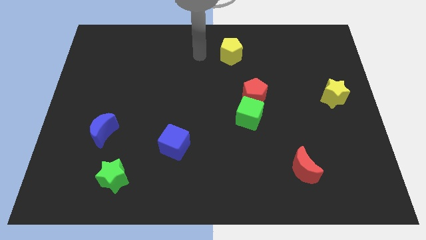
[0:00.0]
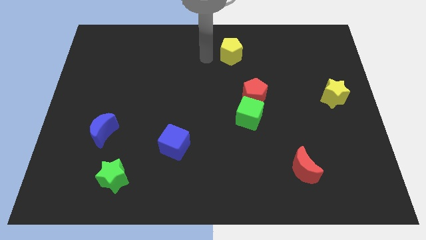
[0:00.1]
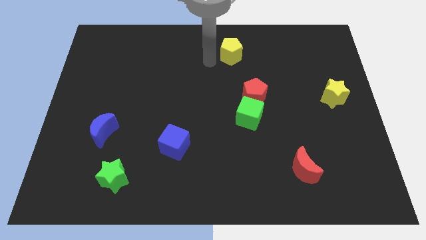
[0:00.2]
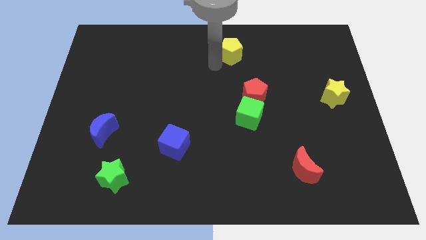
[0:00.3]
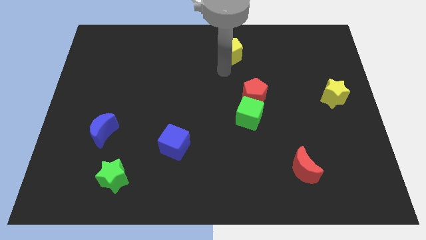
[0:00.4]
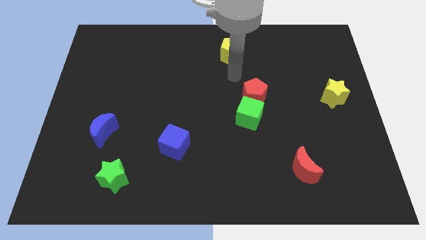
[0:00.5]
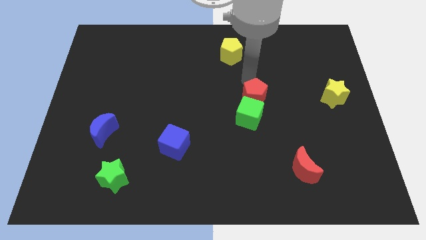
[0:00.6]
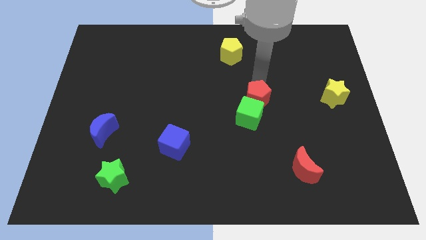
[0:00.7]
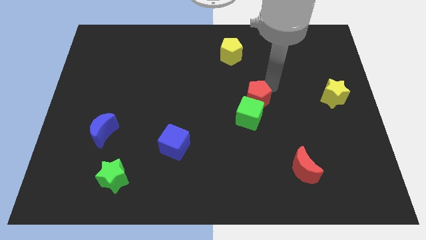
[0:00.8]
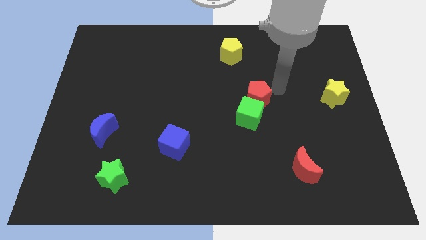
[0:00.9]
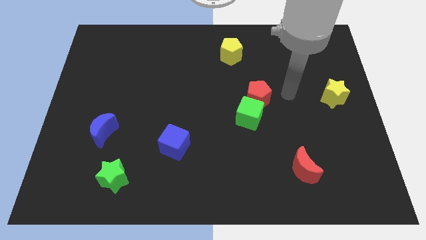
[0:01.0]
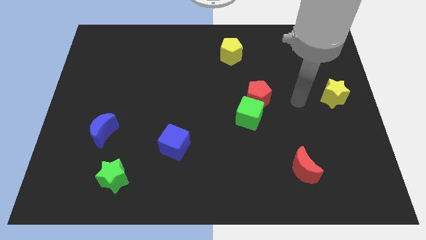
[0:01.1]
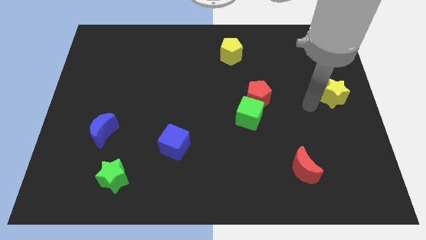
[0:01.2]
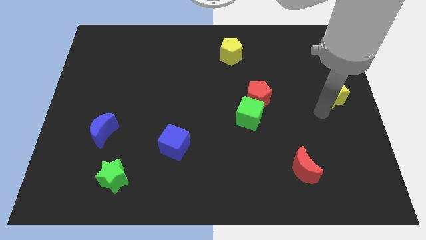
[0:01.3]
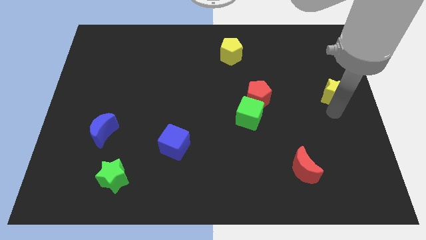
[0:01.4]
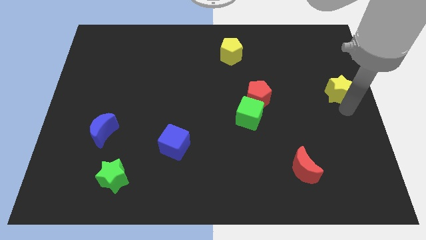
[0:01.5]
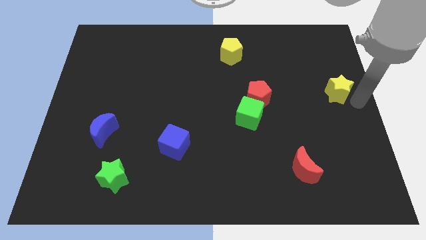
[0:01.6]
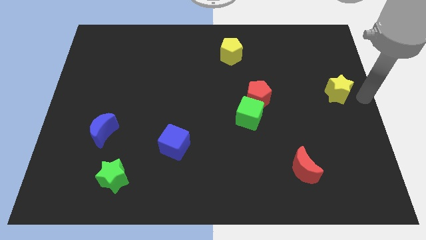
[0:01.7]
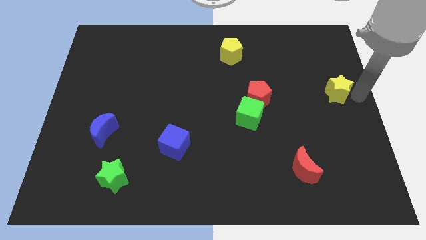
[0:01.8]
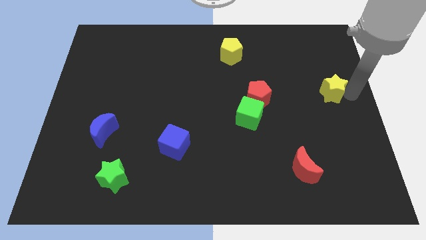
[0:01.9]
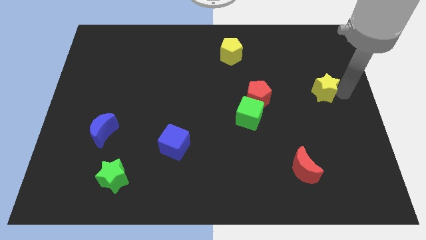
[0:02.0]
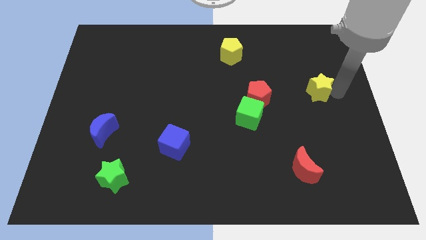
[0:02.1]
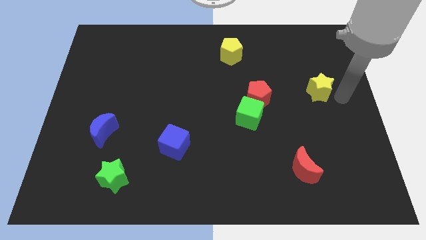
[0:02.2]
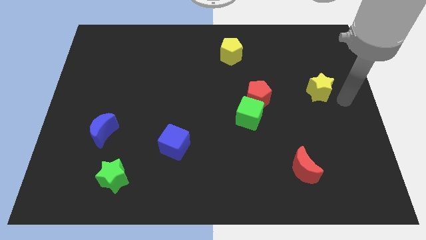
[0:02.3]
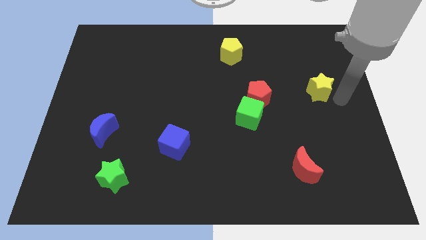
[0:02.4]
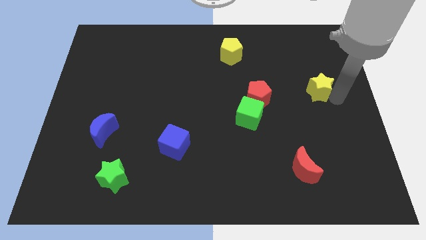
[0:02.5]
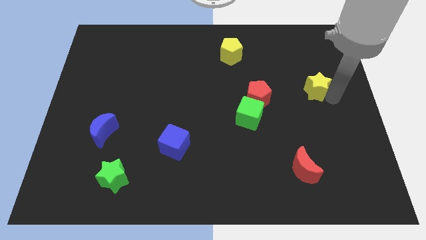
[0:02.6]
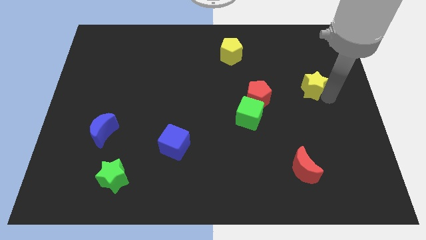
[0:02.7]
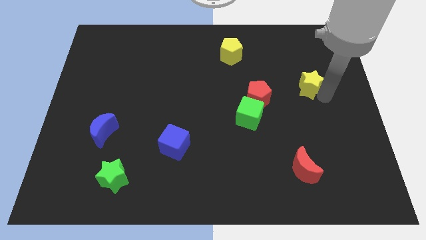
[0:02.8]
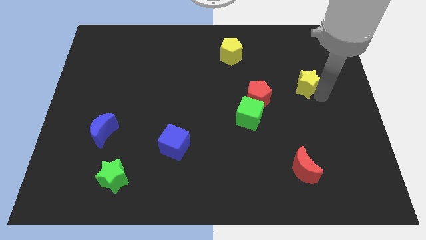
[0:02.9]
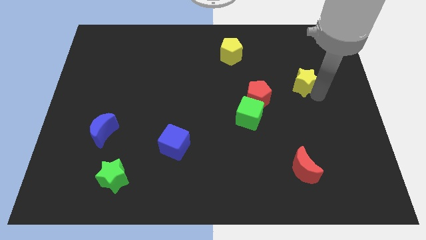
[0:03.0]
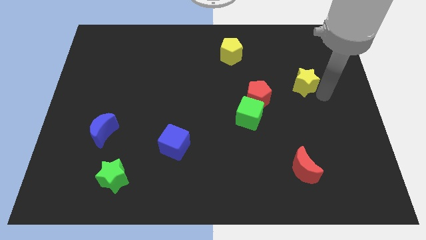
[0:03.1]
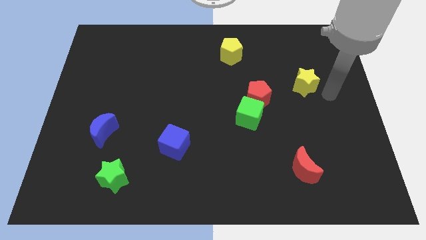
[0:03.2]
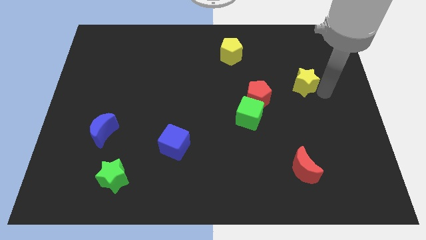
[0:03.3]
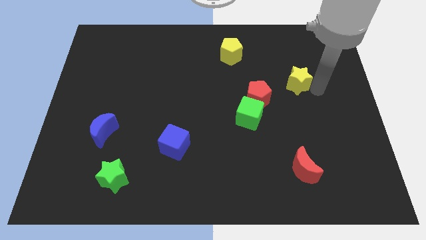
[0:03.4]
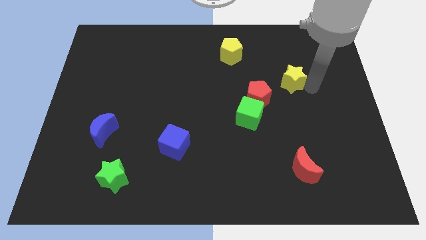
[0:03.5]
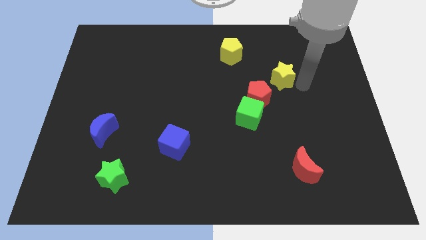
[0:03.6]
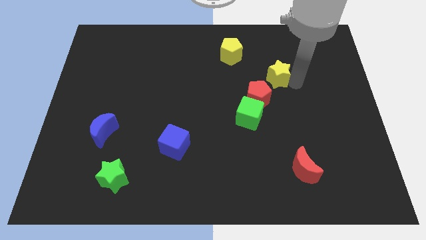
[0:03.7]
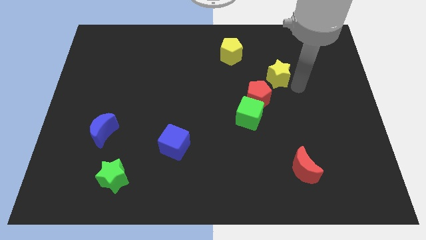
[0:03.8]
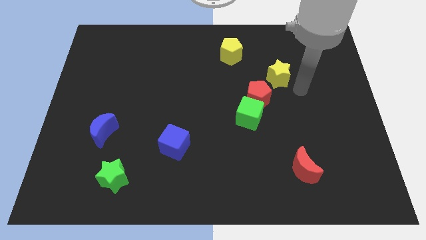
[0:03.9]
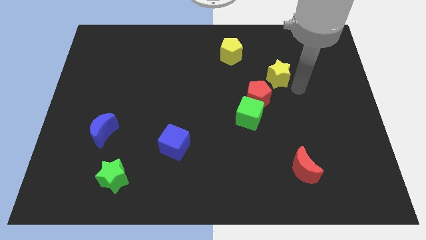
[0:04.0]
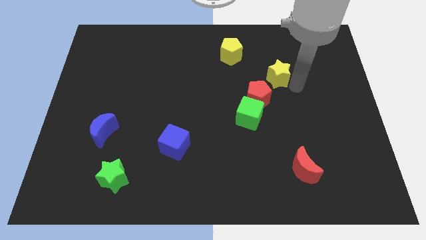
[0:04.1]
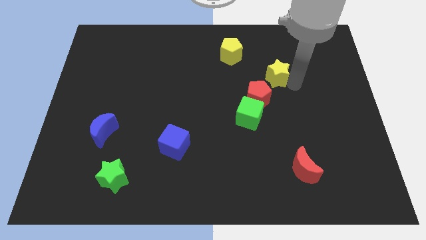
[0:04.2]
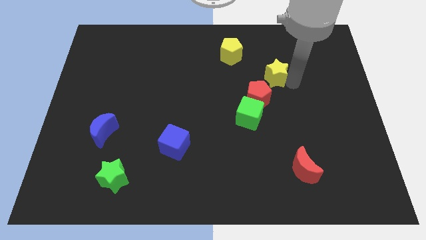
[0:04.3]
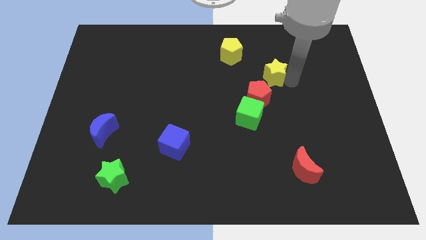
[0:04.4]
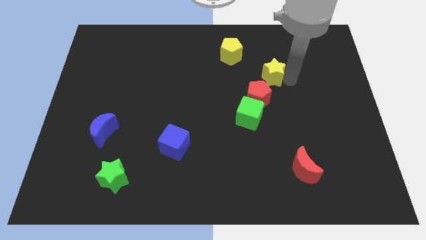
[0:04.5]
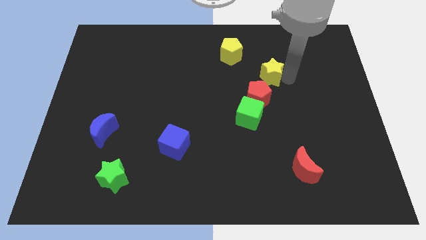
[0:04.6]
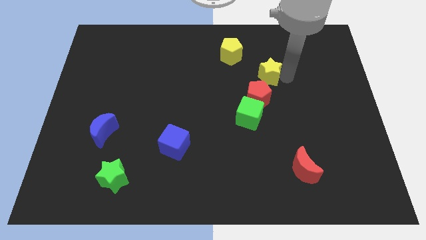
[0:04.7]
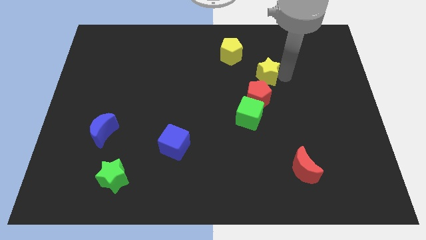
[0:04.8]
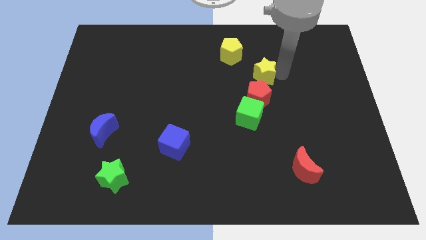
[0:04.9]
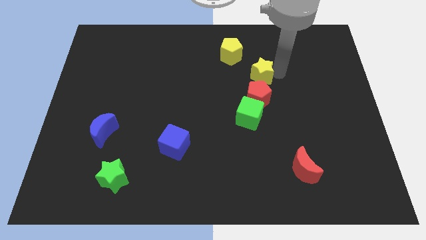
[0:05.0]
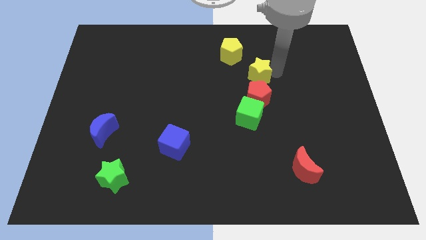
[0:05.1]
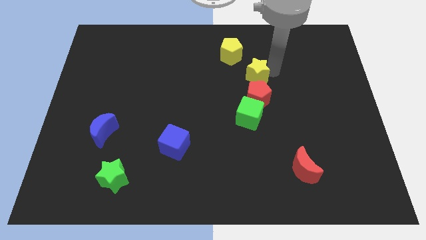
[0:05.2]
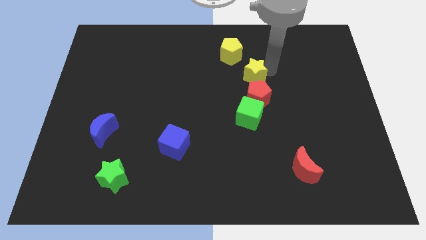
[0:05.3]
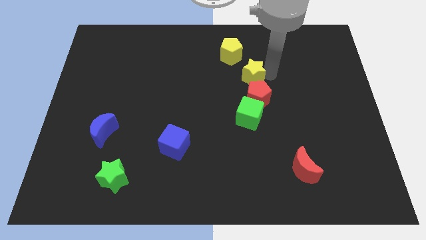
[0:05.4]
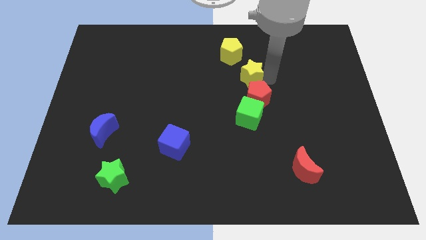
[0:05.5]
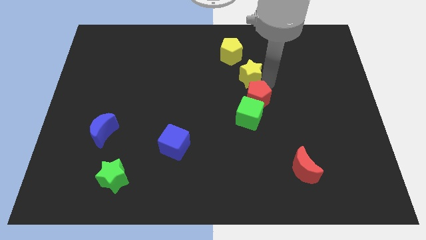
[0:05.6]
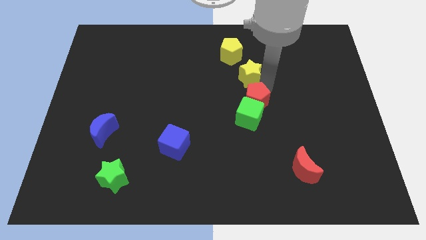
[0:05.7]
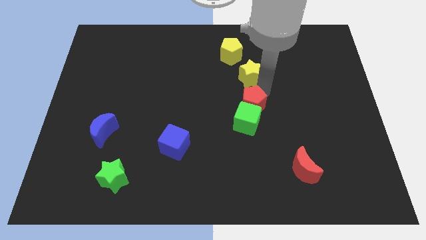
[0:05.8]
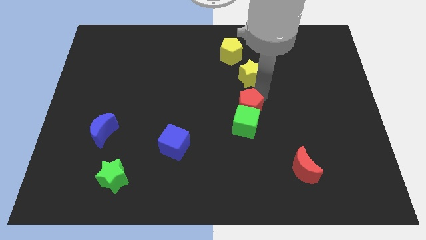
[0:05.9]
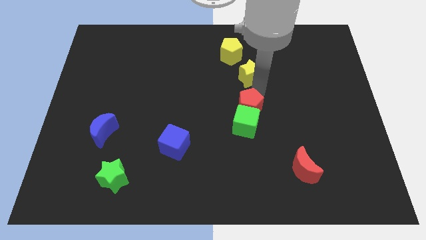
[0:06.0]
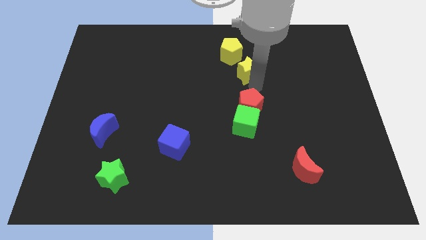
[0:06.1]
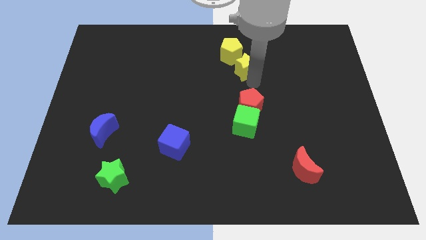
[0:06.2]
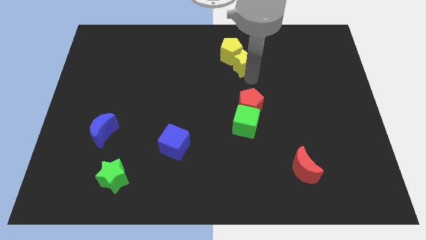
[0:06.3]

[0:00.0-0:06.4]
push the yellow star to the yellow pentagon

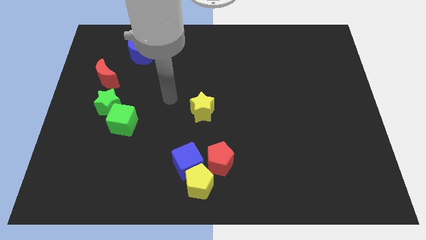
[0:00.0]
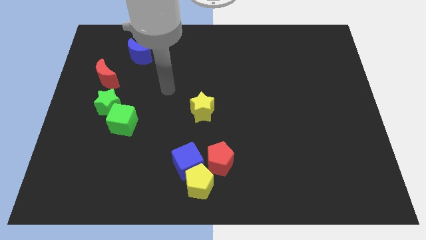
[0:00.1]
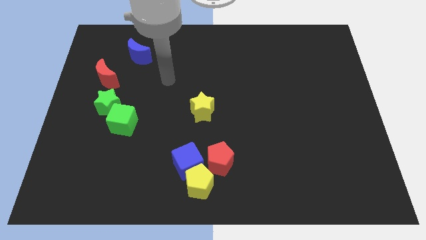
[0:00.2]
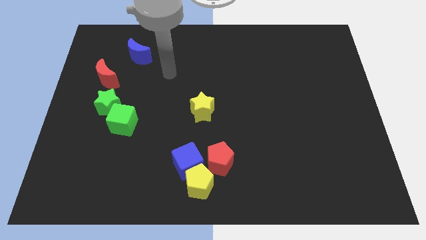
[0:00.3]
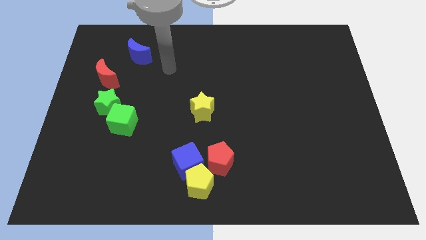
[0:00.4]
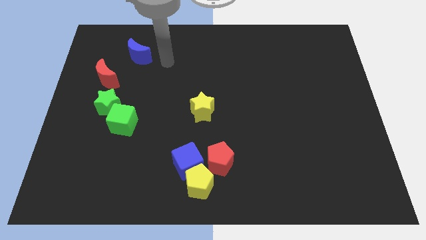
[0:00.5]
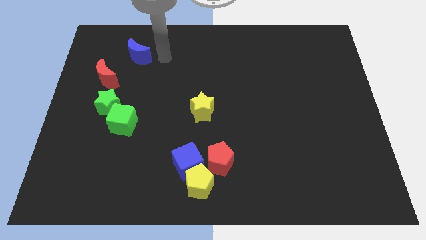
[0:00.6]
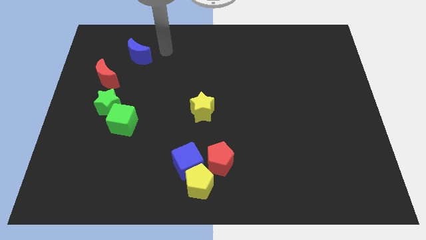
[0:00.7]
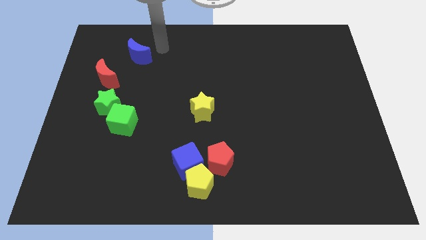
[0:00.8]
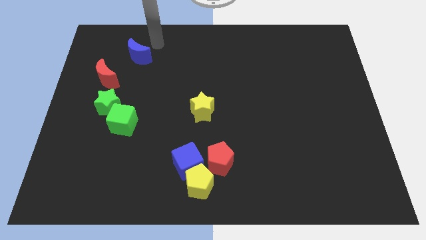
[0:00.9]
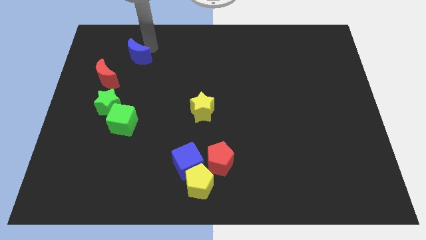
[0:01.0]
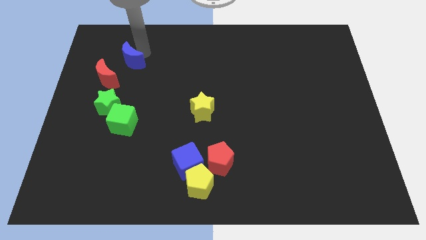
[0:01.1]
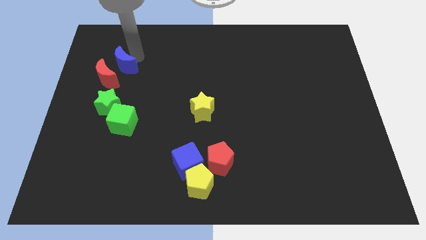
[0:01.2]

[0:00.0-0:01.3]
put the blue moon close to the red moon
